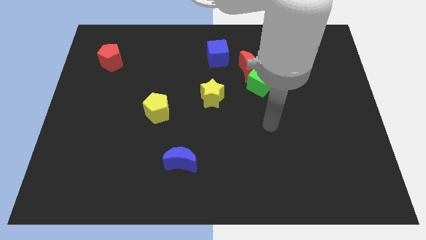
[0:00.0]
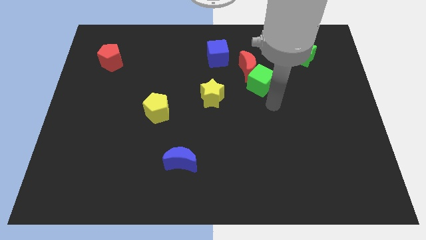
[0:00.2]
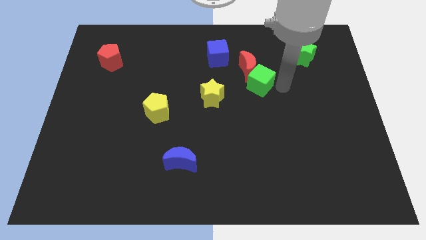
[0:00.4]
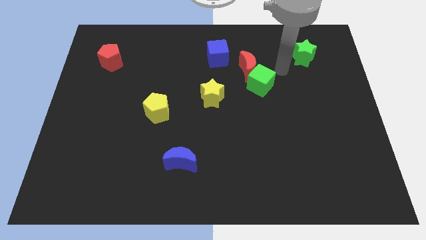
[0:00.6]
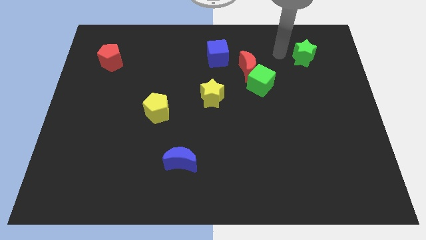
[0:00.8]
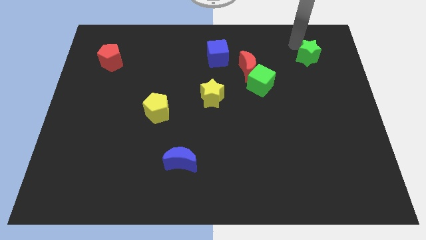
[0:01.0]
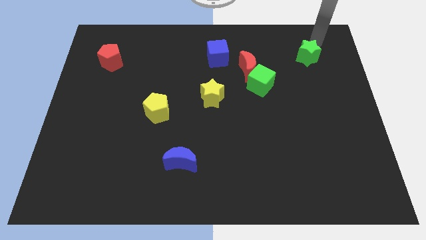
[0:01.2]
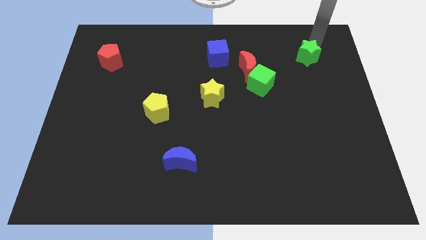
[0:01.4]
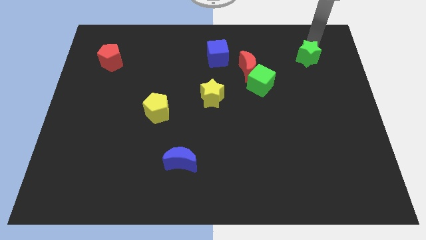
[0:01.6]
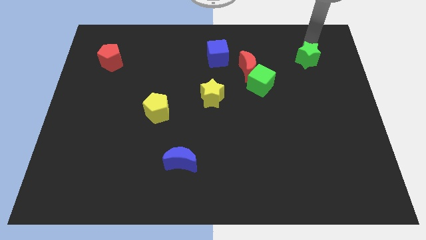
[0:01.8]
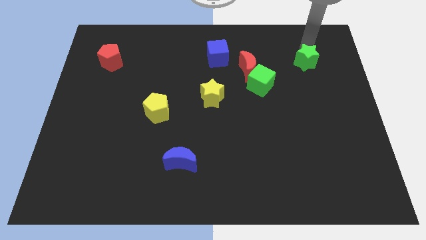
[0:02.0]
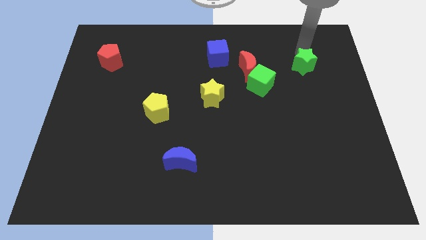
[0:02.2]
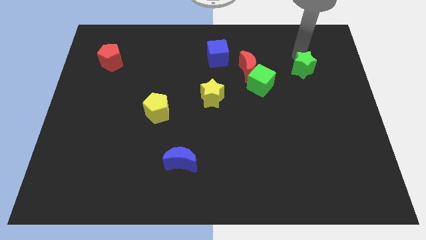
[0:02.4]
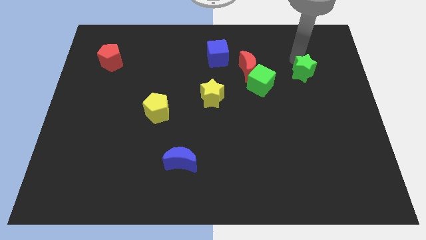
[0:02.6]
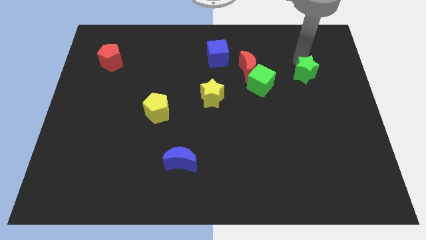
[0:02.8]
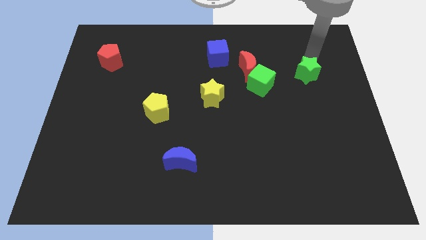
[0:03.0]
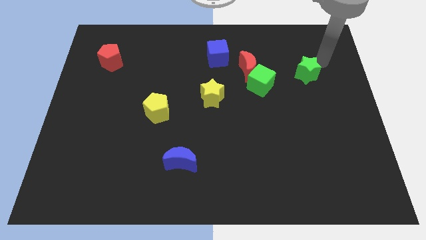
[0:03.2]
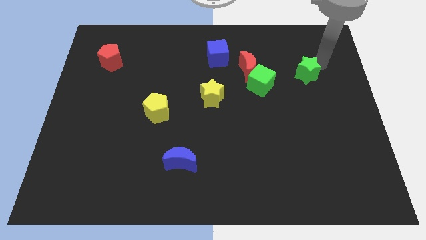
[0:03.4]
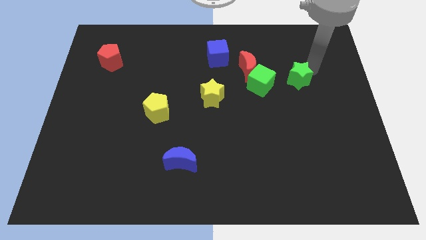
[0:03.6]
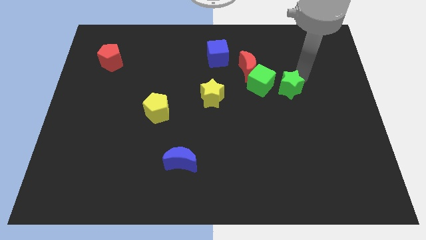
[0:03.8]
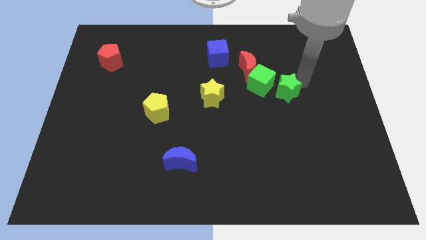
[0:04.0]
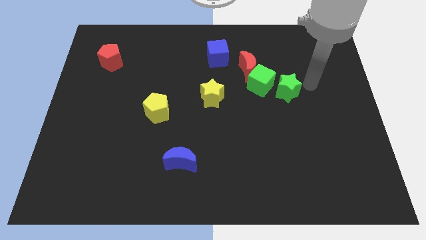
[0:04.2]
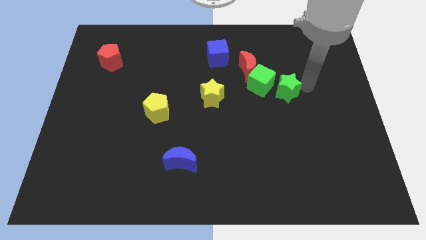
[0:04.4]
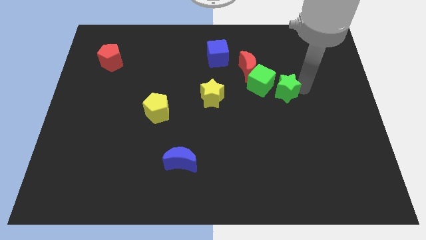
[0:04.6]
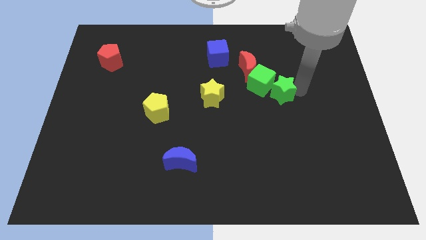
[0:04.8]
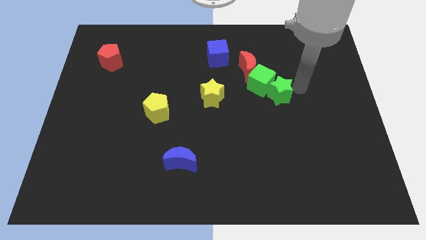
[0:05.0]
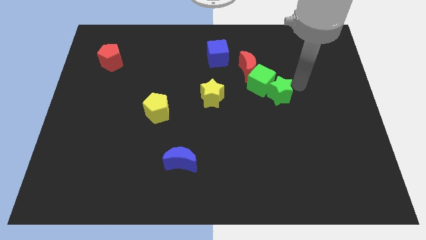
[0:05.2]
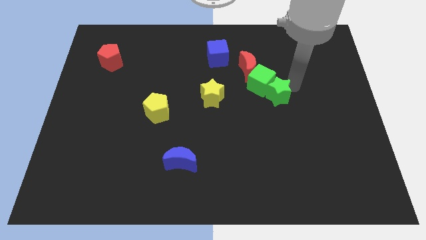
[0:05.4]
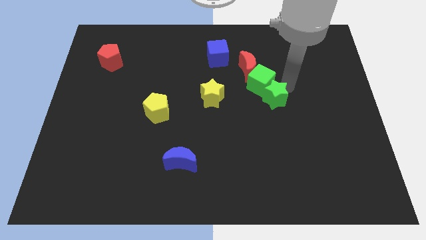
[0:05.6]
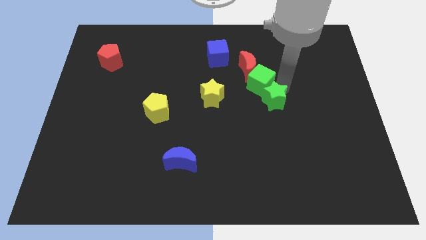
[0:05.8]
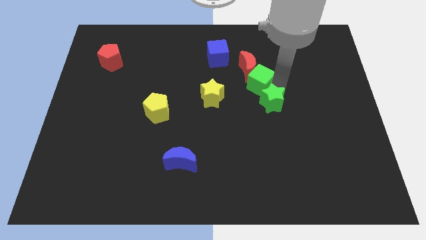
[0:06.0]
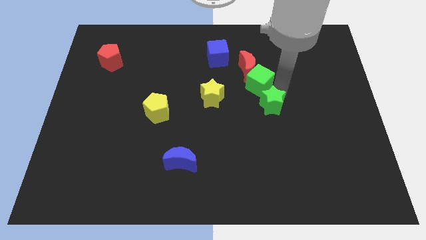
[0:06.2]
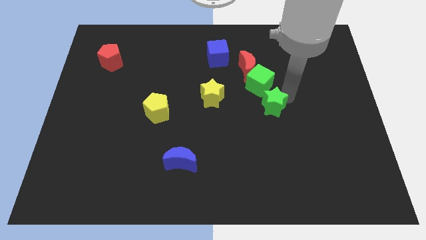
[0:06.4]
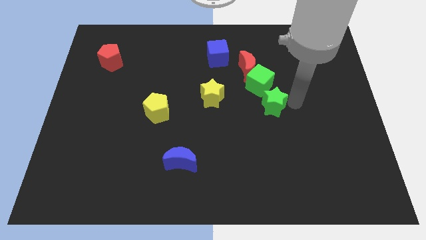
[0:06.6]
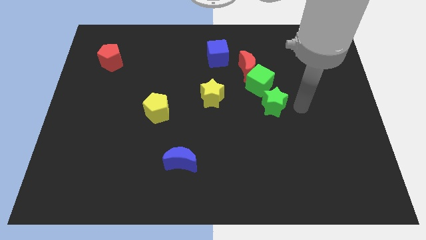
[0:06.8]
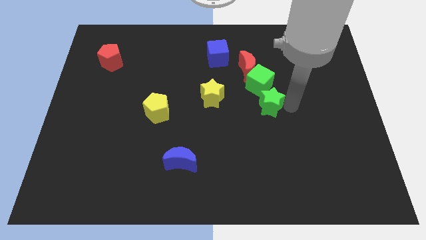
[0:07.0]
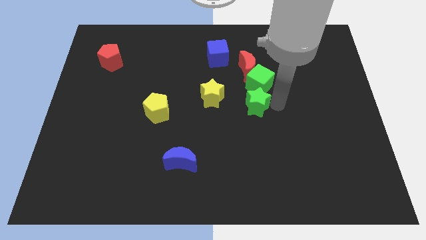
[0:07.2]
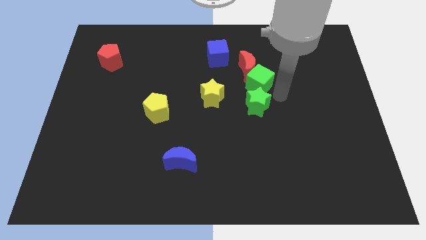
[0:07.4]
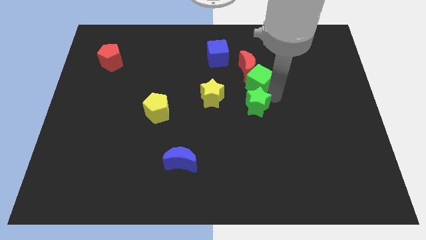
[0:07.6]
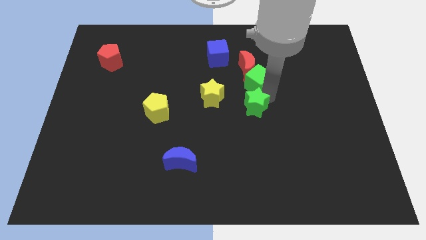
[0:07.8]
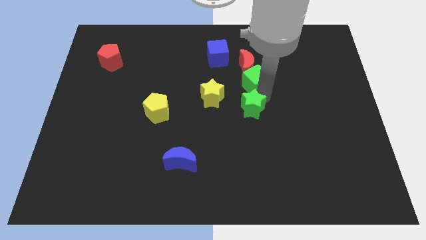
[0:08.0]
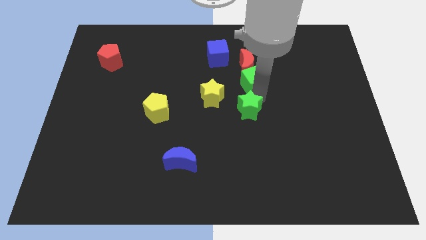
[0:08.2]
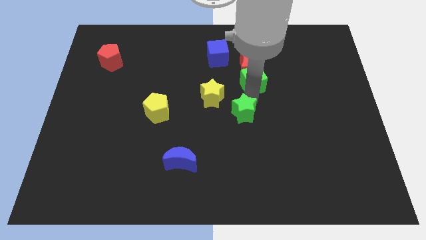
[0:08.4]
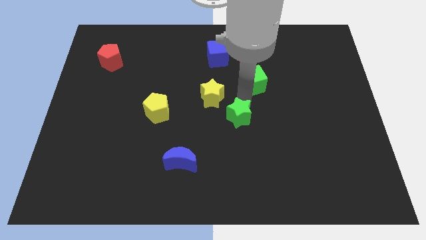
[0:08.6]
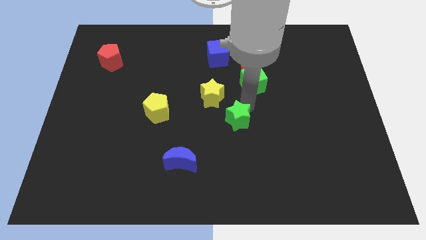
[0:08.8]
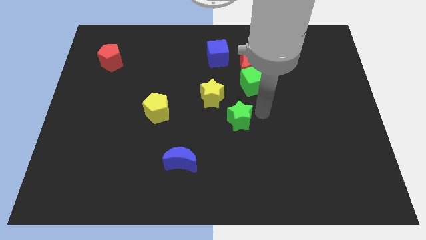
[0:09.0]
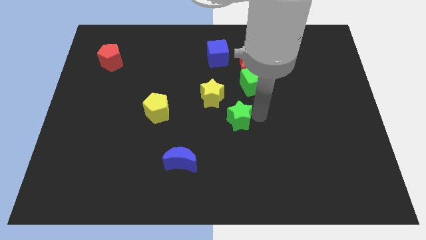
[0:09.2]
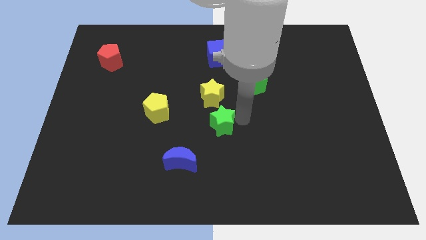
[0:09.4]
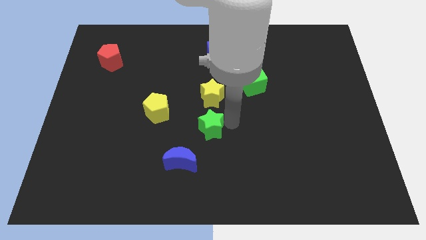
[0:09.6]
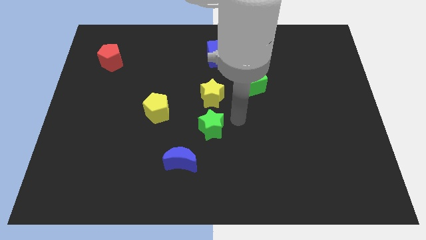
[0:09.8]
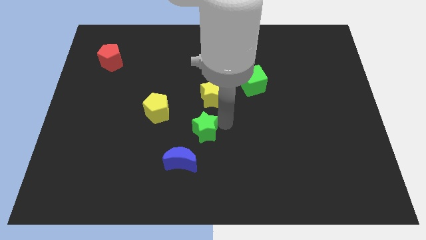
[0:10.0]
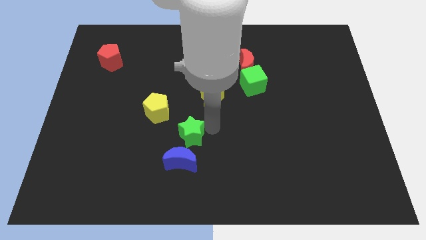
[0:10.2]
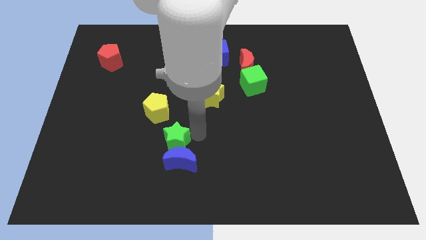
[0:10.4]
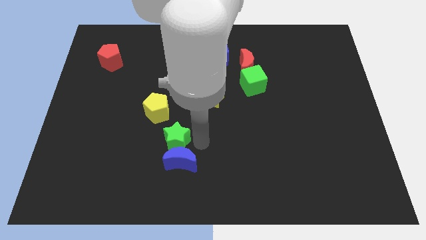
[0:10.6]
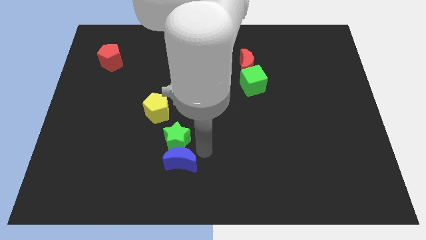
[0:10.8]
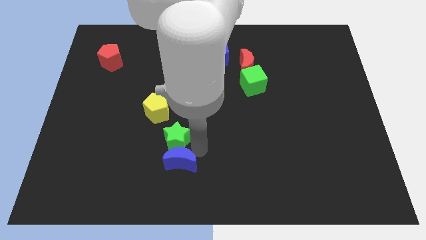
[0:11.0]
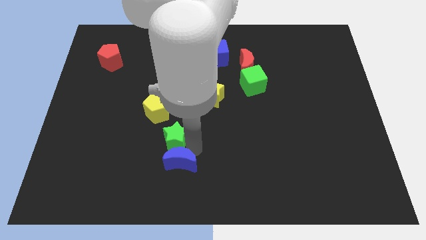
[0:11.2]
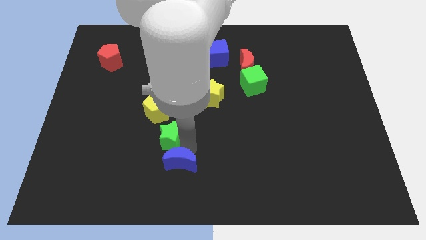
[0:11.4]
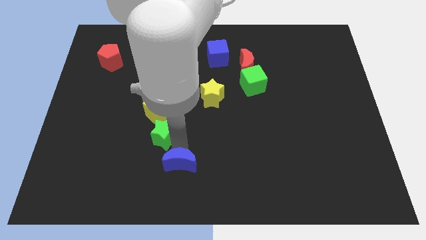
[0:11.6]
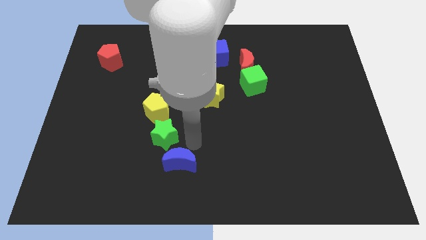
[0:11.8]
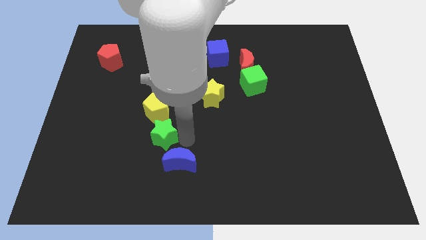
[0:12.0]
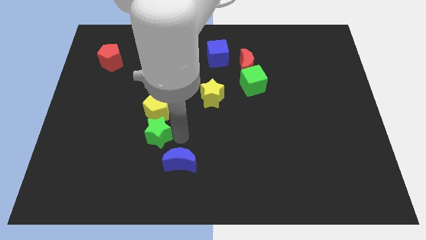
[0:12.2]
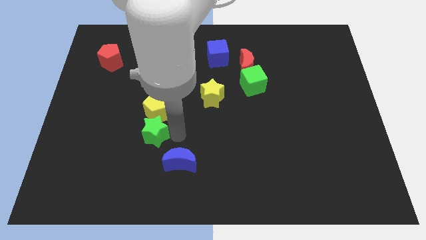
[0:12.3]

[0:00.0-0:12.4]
move the green star to the bottom left of the yellow pentagon

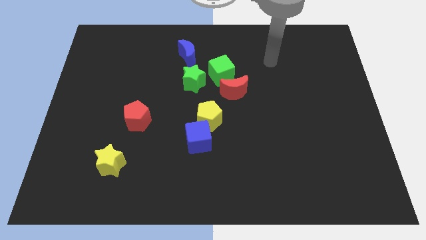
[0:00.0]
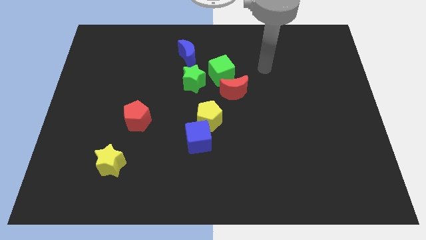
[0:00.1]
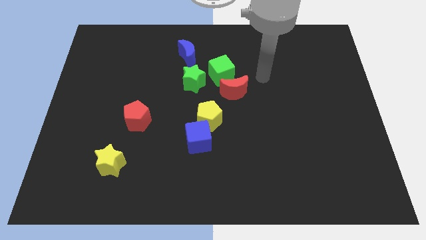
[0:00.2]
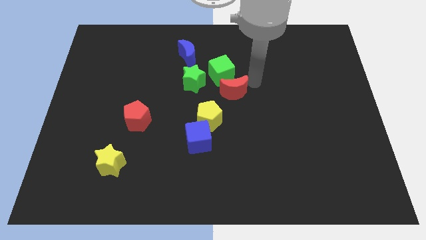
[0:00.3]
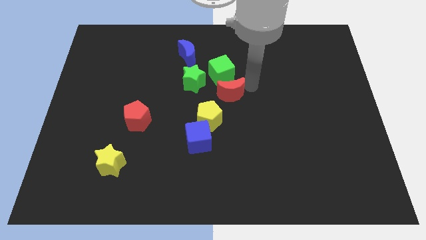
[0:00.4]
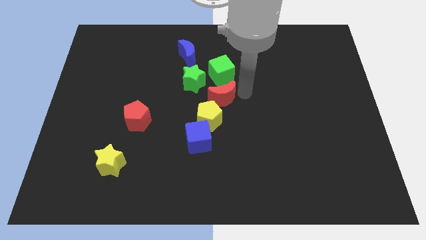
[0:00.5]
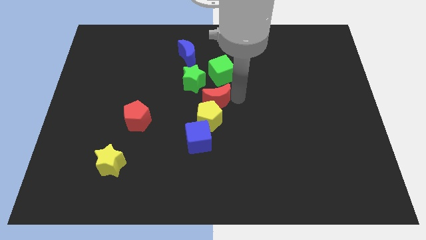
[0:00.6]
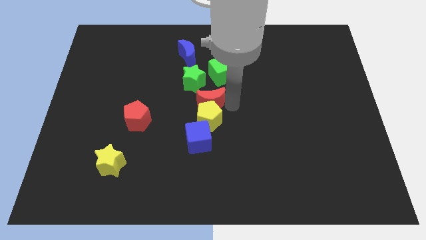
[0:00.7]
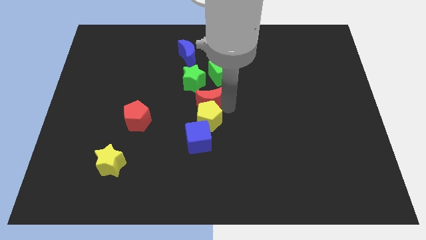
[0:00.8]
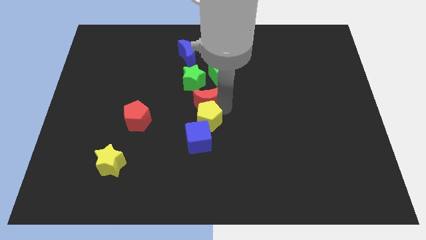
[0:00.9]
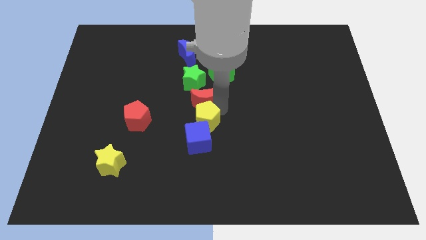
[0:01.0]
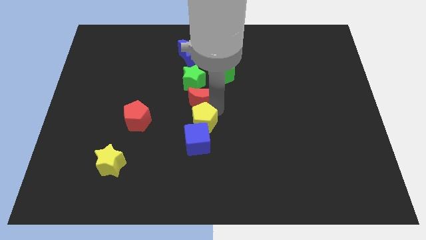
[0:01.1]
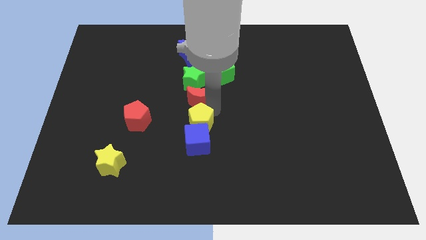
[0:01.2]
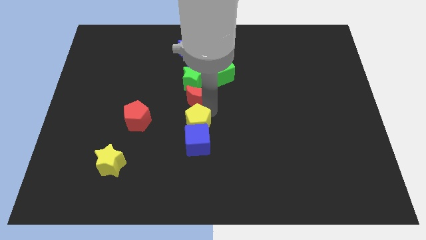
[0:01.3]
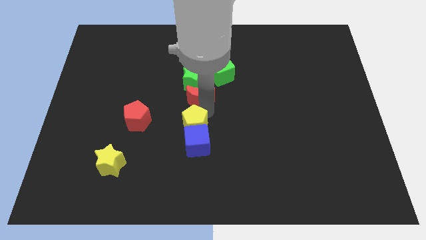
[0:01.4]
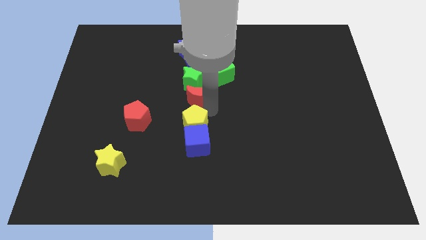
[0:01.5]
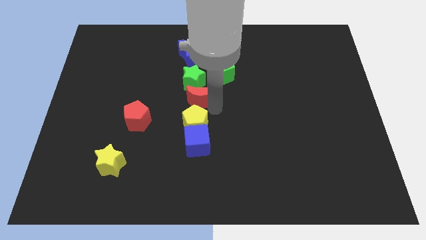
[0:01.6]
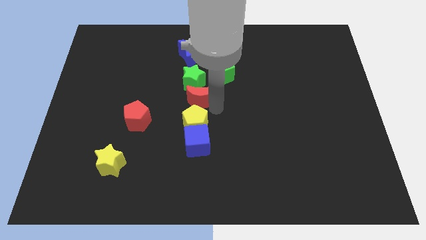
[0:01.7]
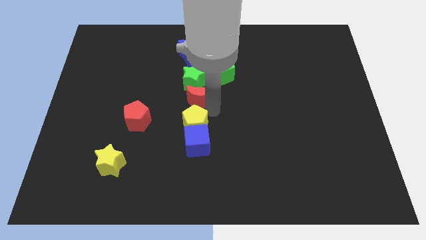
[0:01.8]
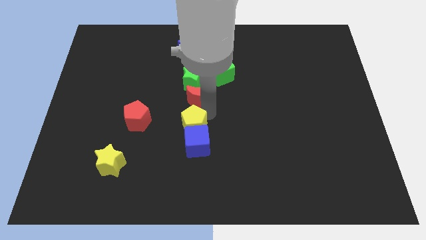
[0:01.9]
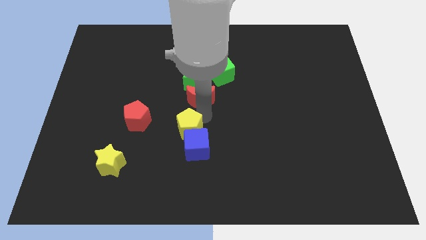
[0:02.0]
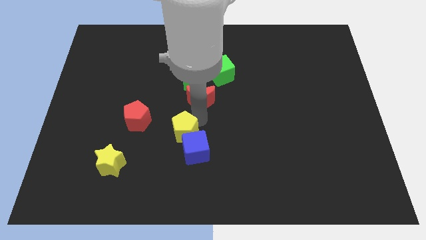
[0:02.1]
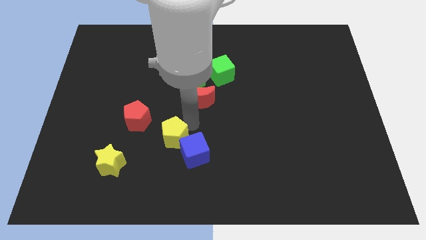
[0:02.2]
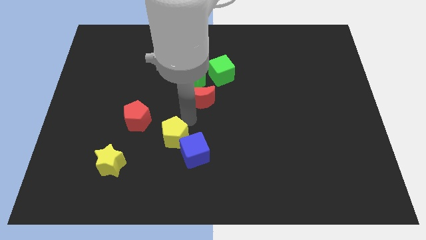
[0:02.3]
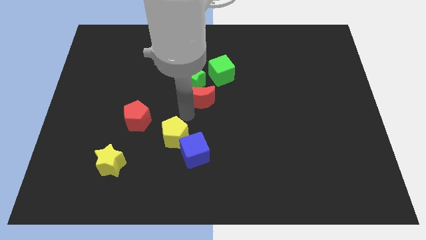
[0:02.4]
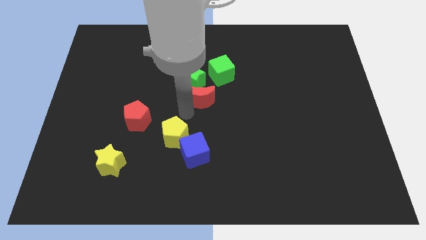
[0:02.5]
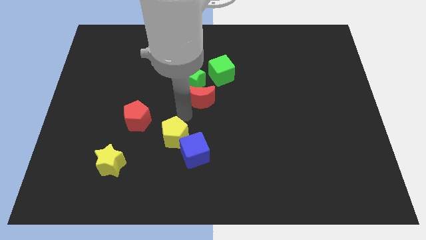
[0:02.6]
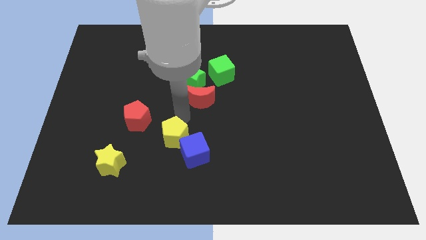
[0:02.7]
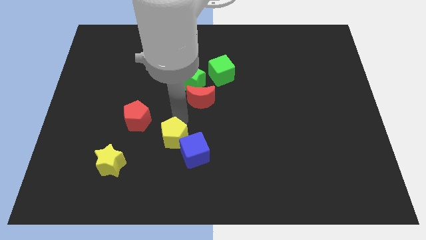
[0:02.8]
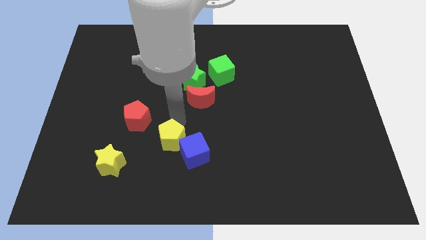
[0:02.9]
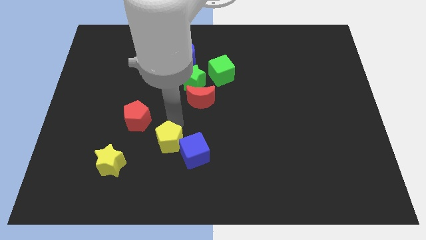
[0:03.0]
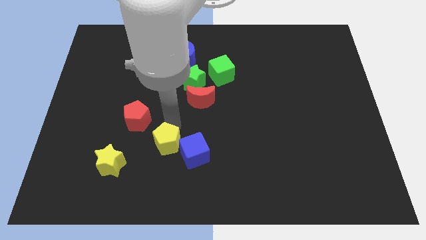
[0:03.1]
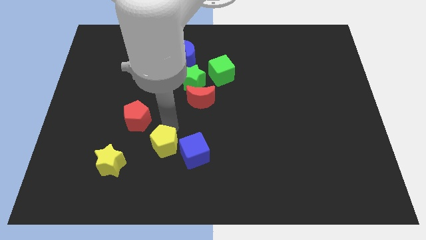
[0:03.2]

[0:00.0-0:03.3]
put the yellow pentagon to the right of the yellow star
